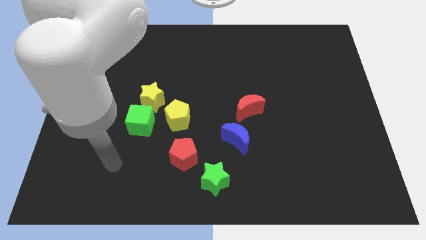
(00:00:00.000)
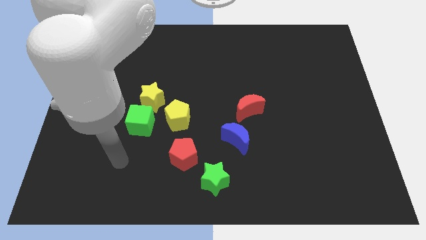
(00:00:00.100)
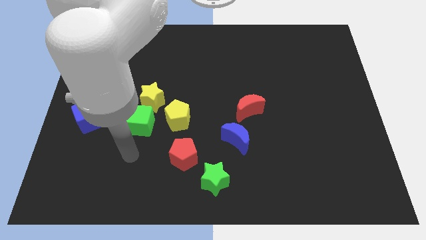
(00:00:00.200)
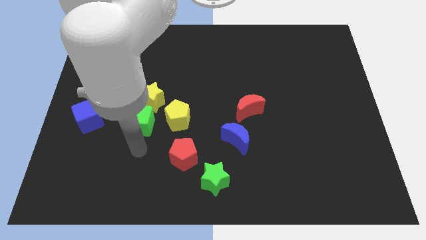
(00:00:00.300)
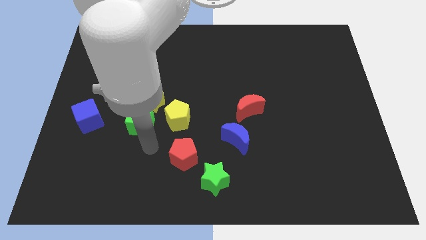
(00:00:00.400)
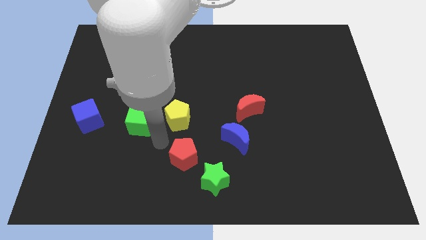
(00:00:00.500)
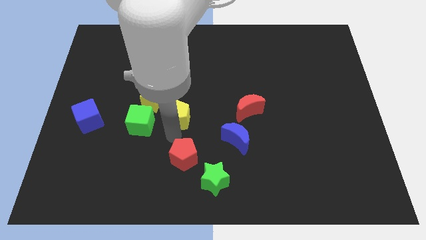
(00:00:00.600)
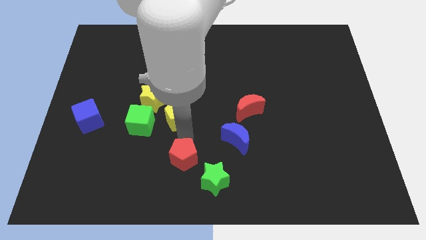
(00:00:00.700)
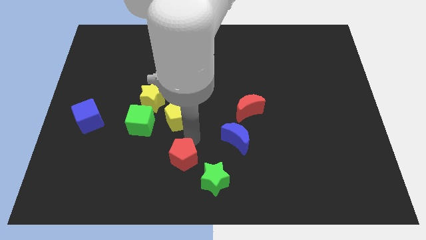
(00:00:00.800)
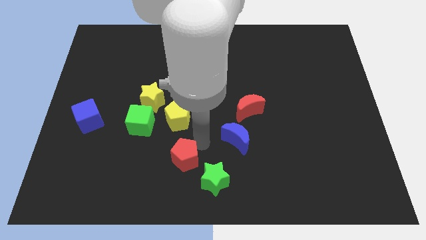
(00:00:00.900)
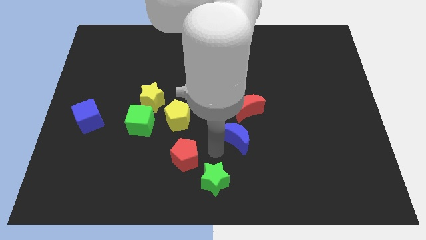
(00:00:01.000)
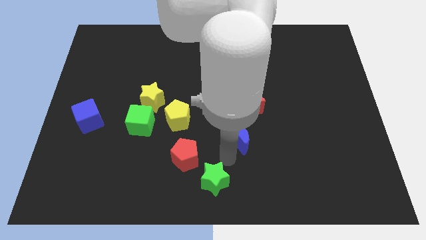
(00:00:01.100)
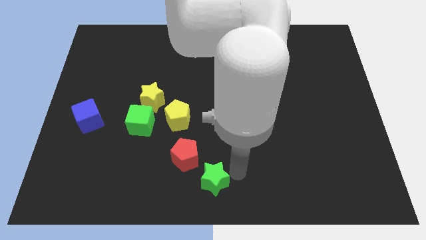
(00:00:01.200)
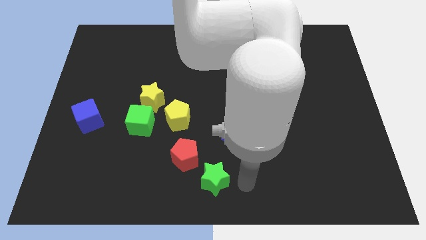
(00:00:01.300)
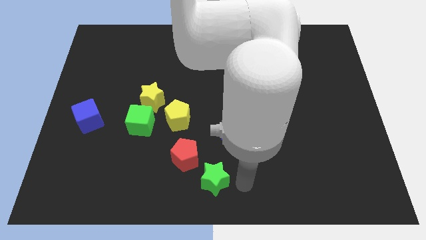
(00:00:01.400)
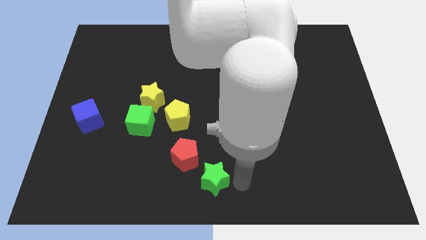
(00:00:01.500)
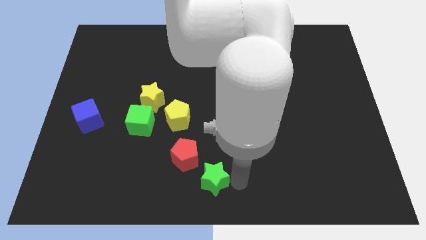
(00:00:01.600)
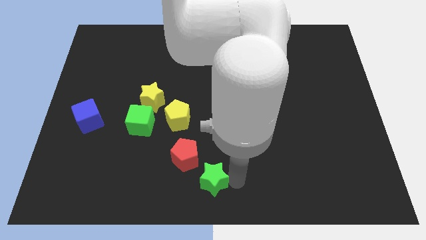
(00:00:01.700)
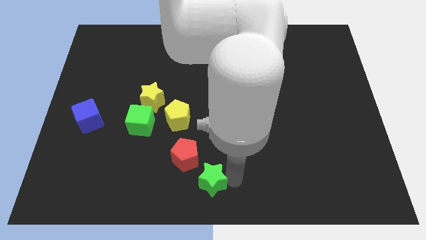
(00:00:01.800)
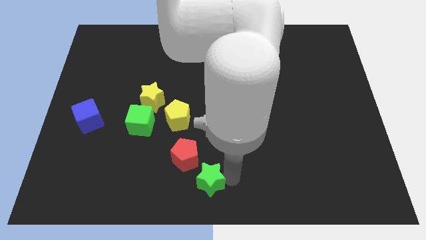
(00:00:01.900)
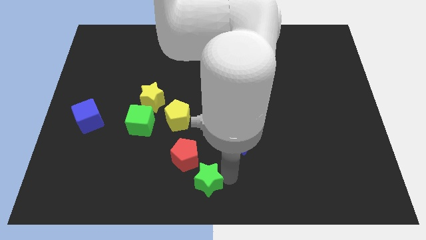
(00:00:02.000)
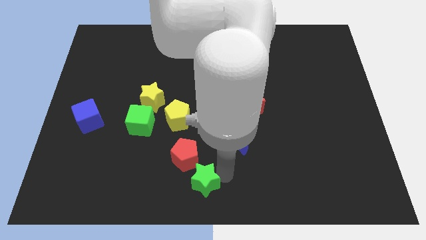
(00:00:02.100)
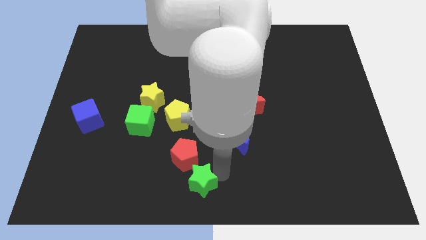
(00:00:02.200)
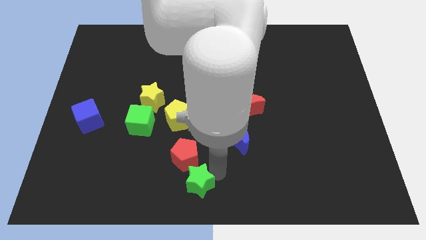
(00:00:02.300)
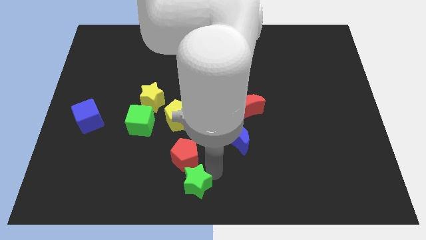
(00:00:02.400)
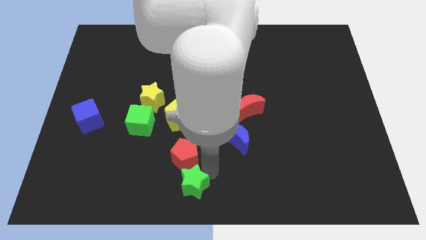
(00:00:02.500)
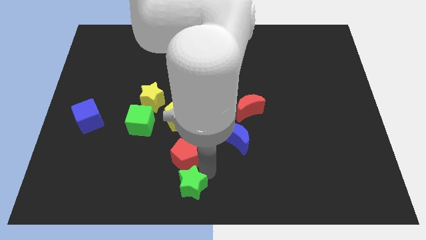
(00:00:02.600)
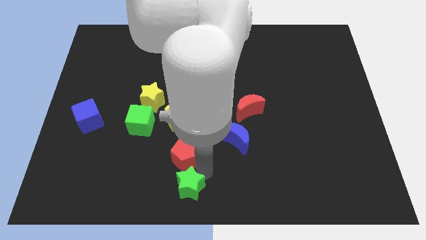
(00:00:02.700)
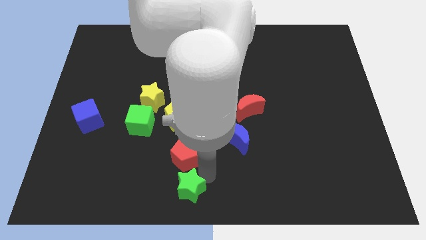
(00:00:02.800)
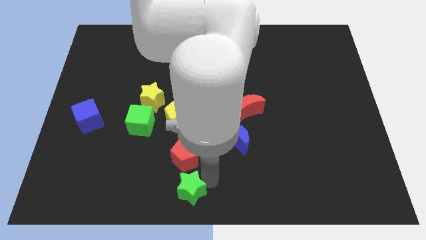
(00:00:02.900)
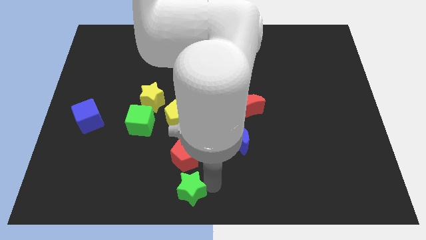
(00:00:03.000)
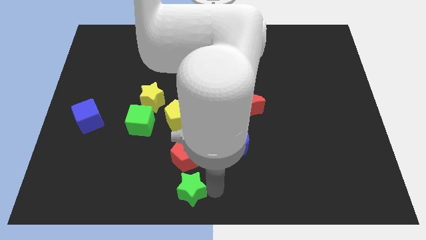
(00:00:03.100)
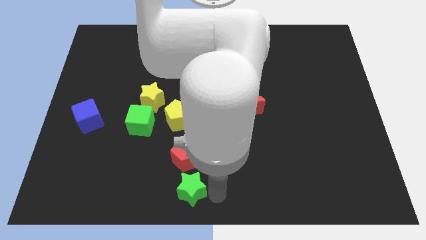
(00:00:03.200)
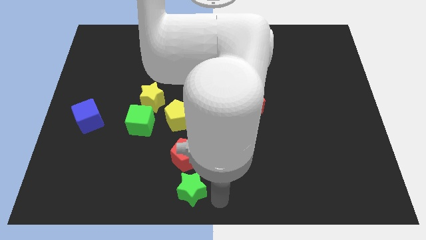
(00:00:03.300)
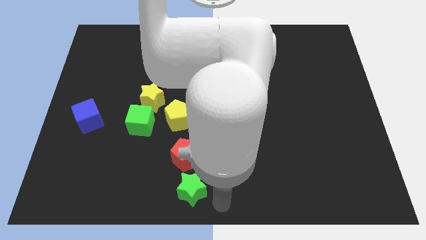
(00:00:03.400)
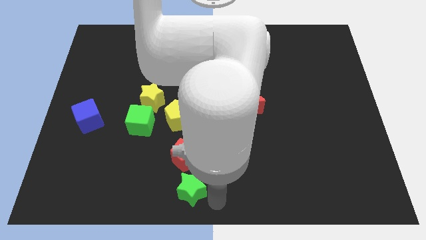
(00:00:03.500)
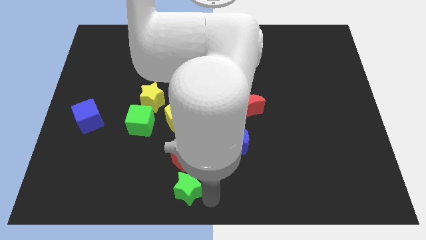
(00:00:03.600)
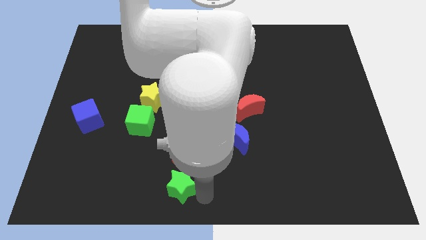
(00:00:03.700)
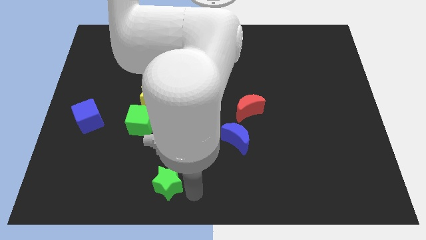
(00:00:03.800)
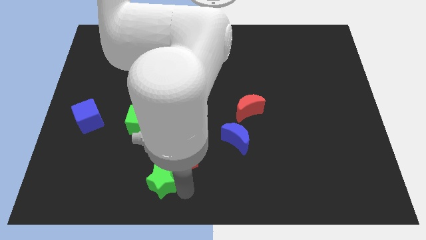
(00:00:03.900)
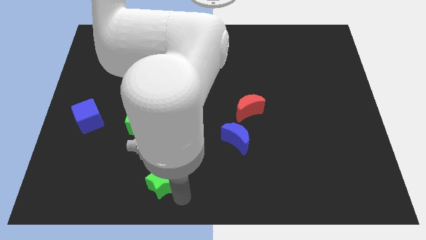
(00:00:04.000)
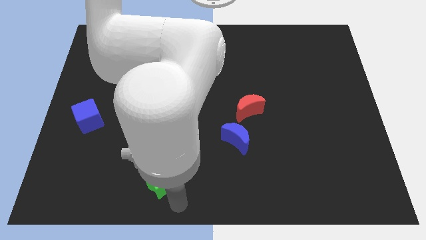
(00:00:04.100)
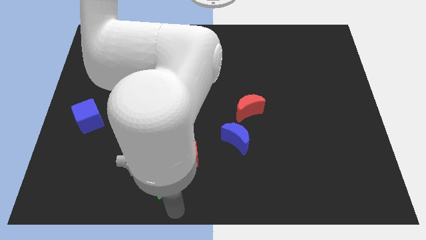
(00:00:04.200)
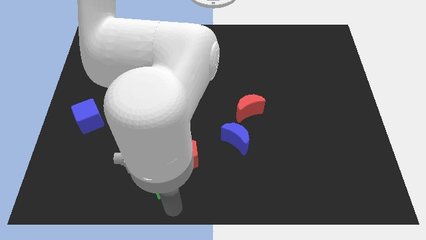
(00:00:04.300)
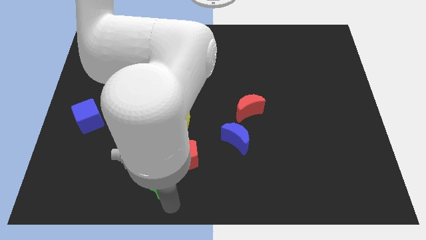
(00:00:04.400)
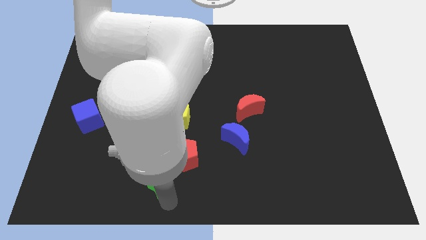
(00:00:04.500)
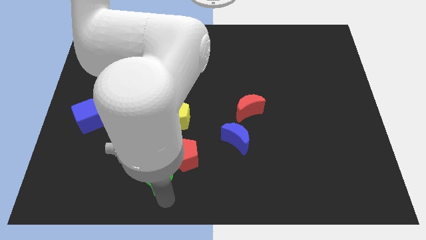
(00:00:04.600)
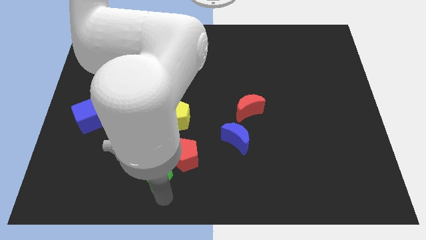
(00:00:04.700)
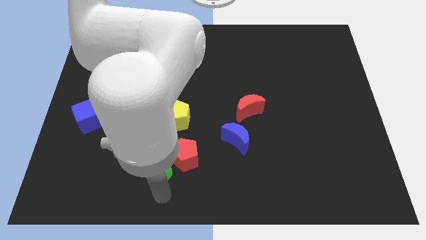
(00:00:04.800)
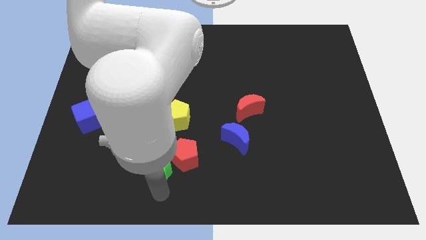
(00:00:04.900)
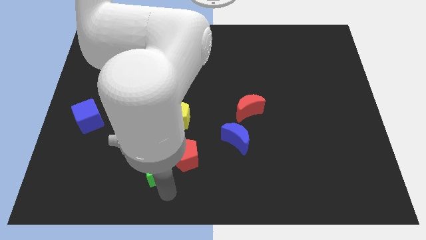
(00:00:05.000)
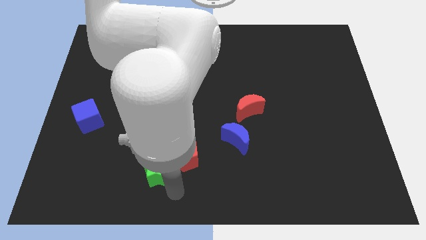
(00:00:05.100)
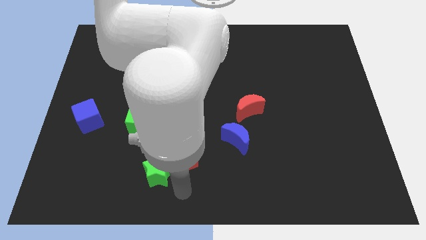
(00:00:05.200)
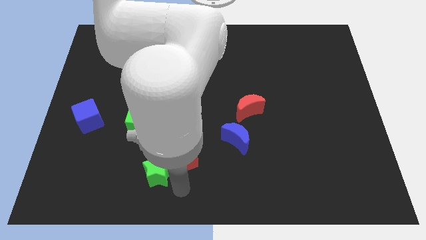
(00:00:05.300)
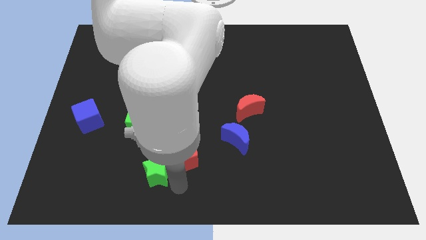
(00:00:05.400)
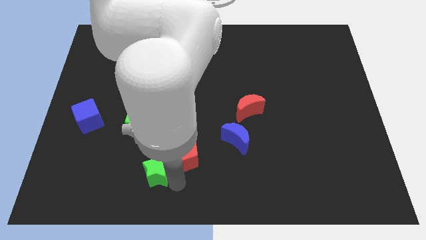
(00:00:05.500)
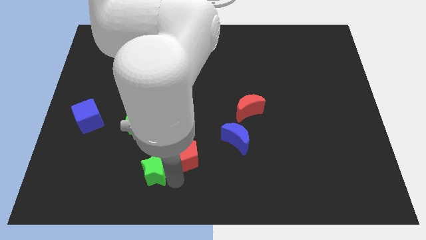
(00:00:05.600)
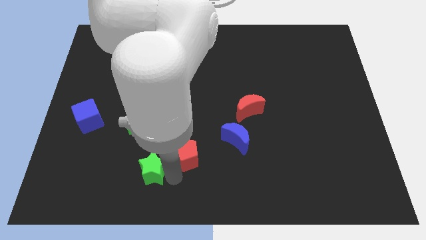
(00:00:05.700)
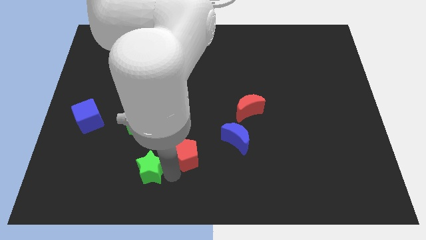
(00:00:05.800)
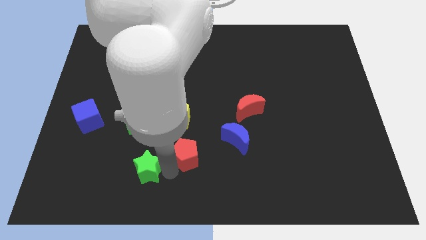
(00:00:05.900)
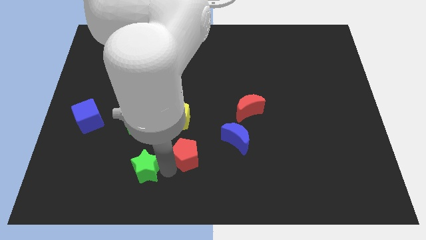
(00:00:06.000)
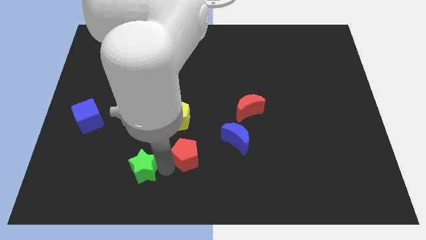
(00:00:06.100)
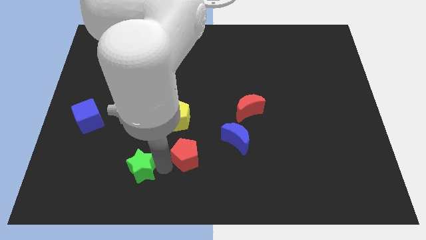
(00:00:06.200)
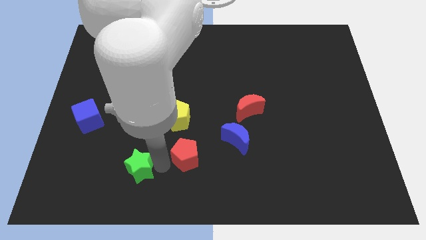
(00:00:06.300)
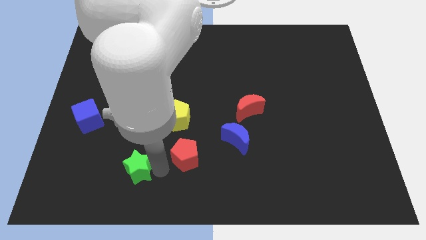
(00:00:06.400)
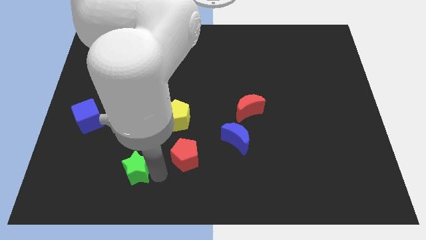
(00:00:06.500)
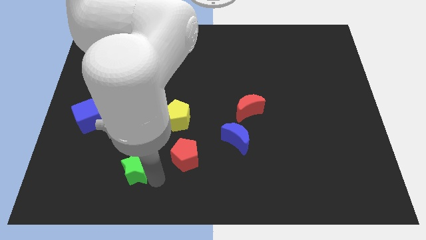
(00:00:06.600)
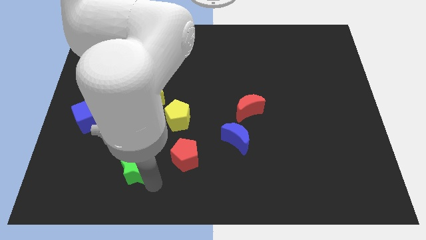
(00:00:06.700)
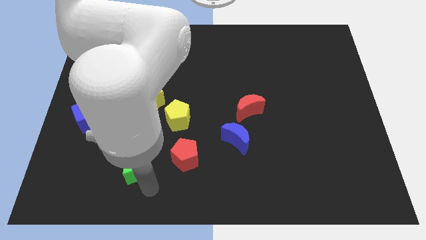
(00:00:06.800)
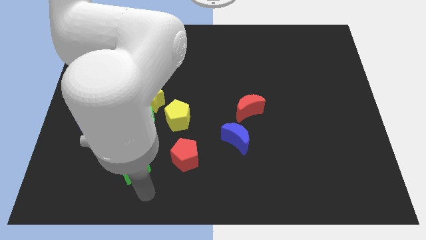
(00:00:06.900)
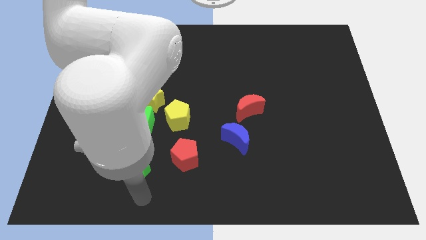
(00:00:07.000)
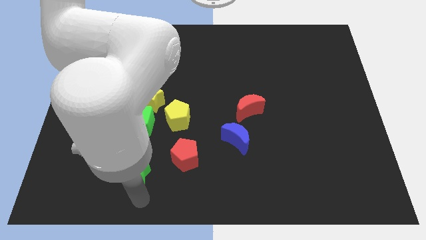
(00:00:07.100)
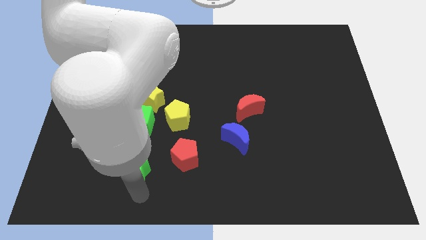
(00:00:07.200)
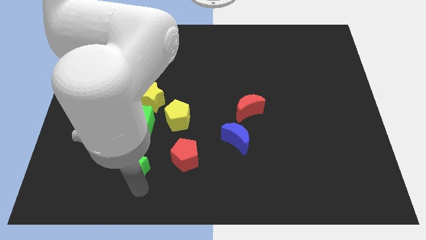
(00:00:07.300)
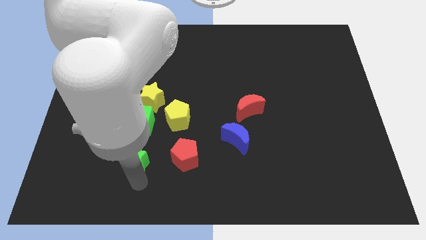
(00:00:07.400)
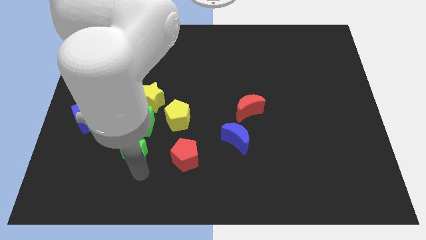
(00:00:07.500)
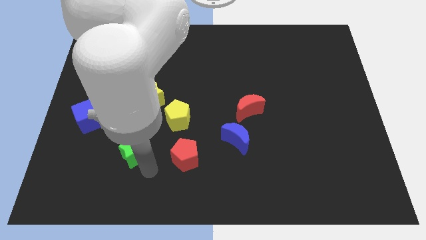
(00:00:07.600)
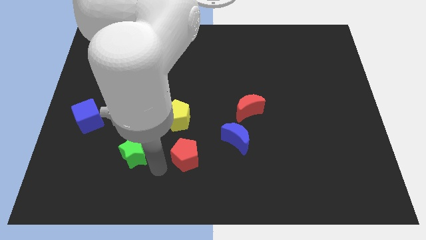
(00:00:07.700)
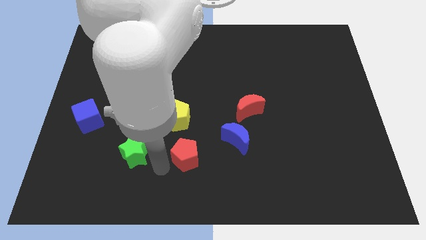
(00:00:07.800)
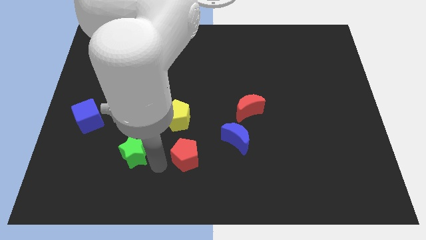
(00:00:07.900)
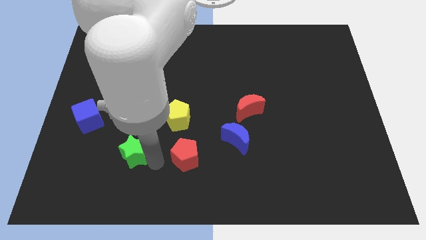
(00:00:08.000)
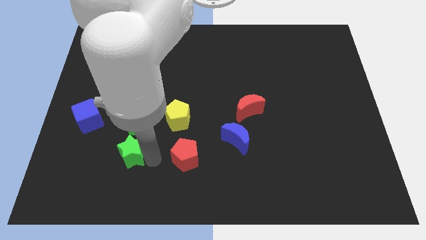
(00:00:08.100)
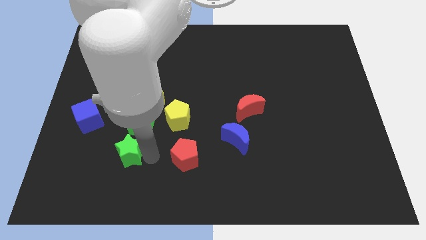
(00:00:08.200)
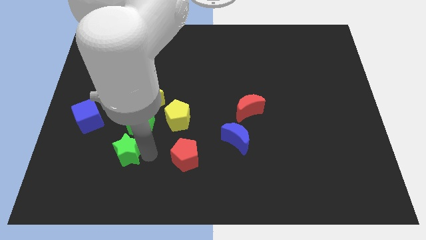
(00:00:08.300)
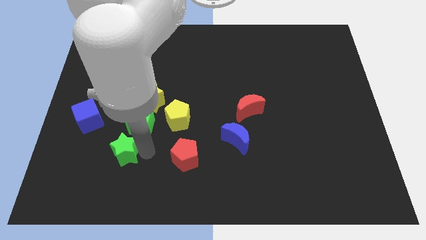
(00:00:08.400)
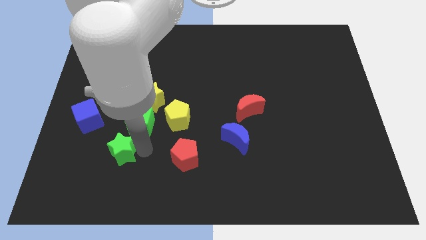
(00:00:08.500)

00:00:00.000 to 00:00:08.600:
push the green star to the bottom right side of the blue cube
